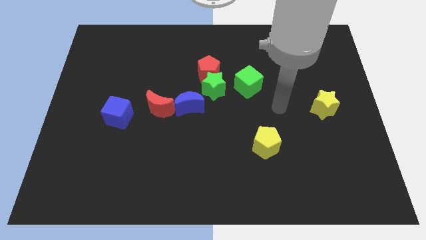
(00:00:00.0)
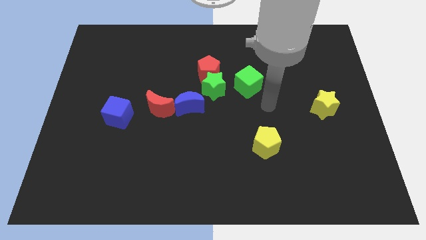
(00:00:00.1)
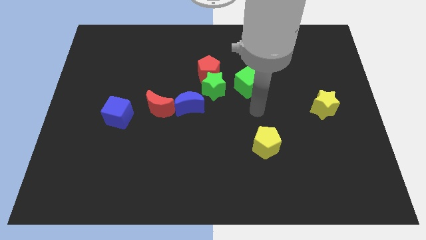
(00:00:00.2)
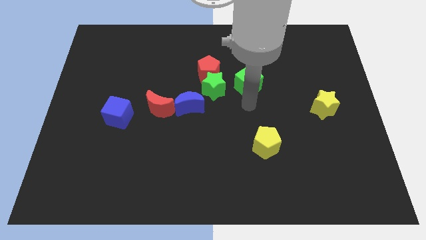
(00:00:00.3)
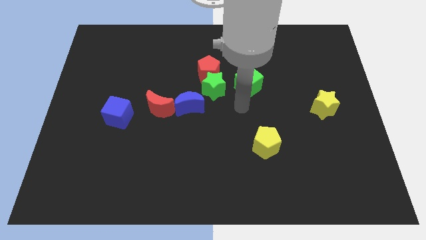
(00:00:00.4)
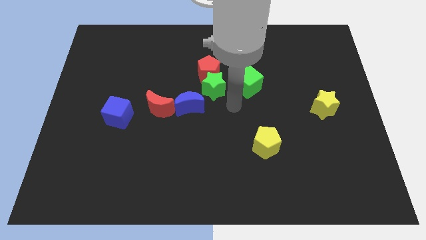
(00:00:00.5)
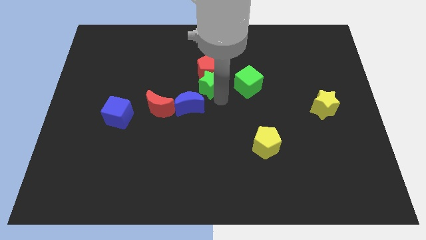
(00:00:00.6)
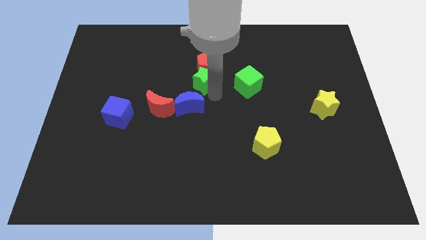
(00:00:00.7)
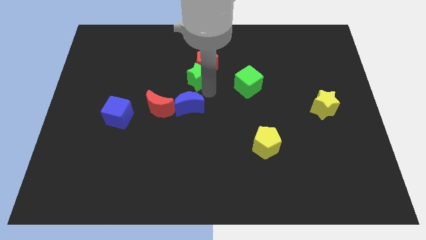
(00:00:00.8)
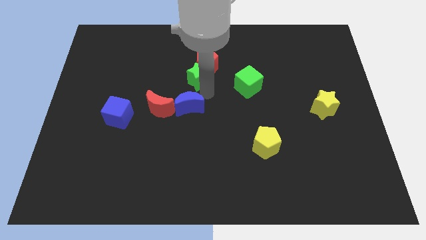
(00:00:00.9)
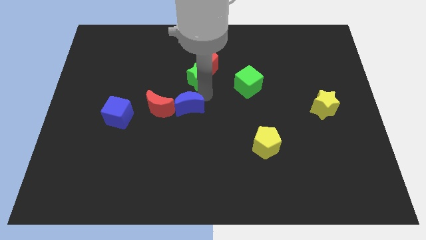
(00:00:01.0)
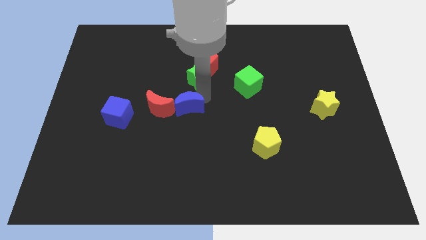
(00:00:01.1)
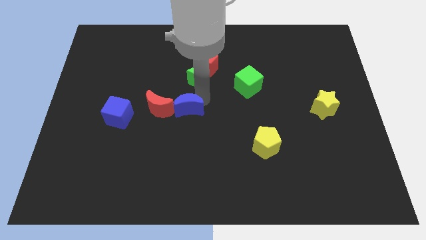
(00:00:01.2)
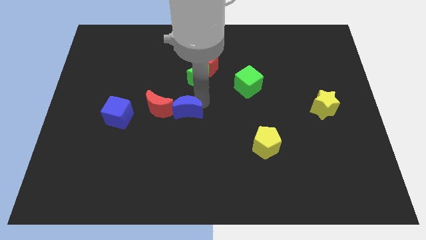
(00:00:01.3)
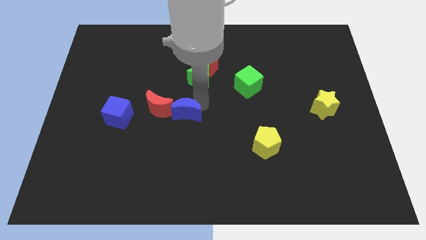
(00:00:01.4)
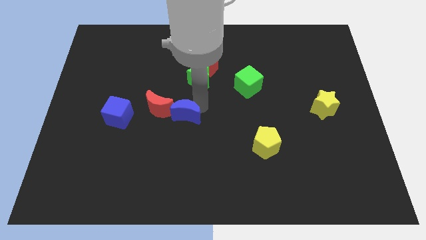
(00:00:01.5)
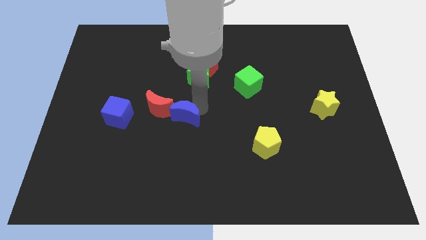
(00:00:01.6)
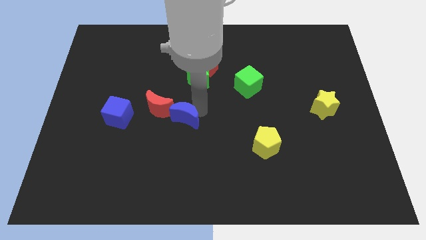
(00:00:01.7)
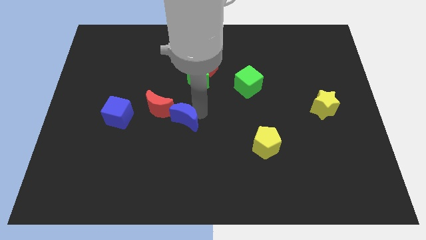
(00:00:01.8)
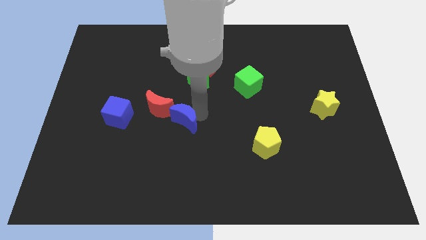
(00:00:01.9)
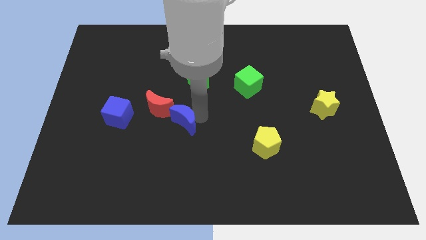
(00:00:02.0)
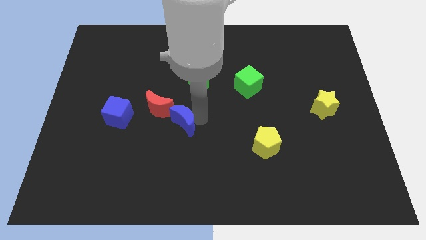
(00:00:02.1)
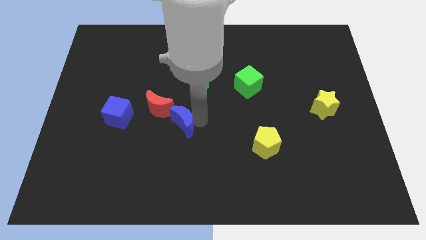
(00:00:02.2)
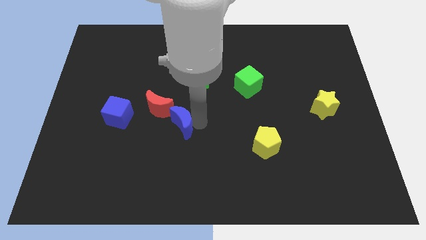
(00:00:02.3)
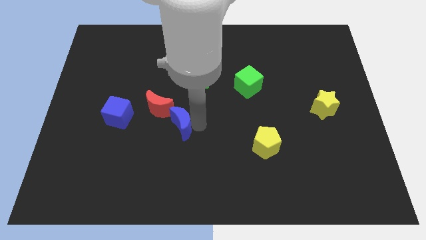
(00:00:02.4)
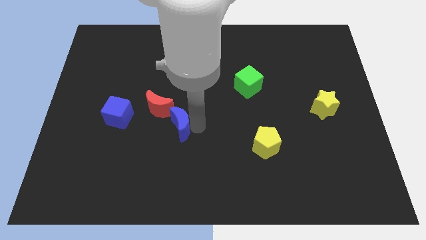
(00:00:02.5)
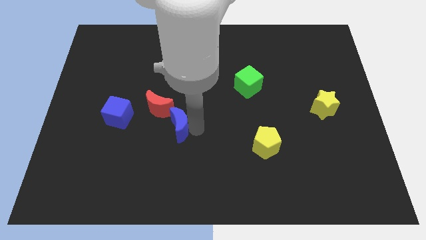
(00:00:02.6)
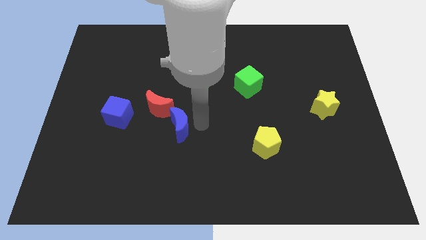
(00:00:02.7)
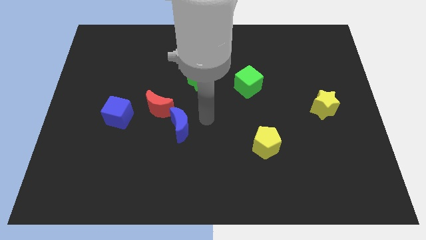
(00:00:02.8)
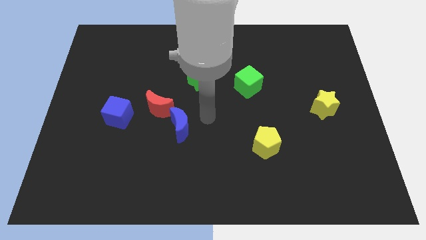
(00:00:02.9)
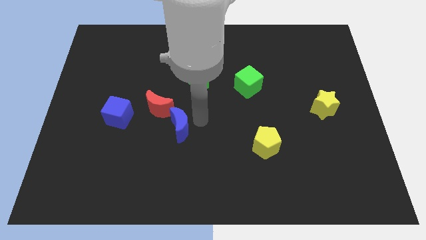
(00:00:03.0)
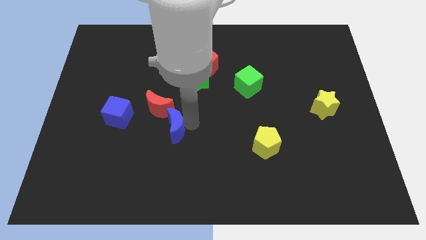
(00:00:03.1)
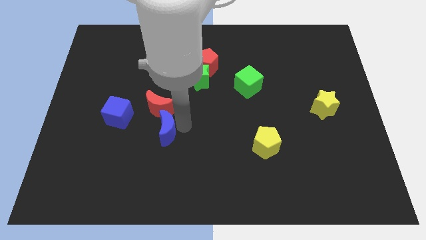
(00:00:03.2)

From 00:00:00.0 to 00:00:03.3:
push the blue moon down and then left a bit

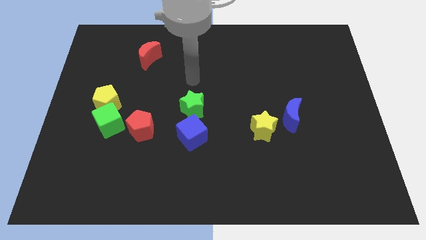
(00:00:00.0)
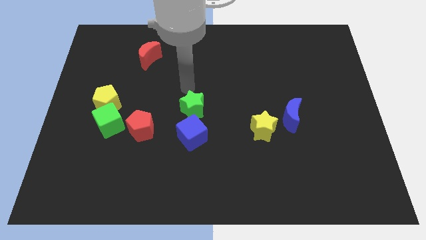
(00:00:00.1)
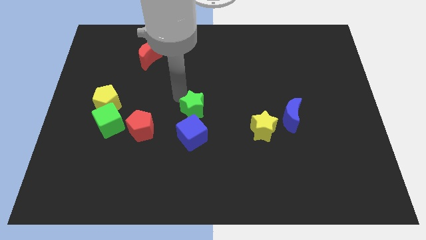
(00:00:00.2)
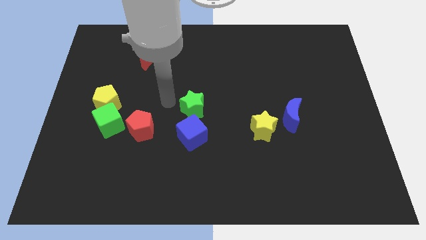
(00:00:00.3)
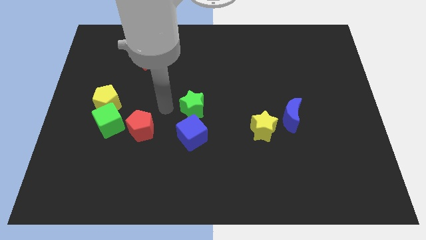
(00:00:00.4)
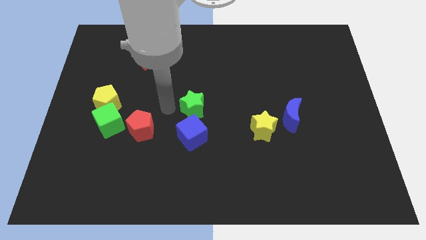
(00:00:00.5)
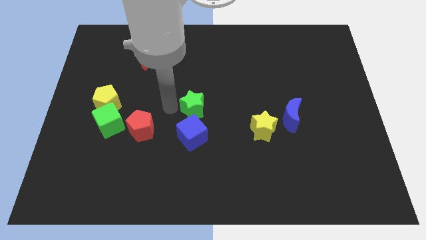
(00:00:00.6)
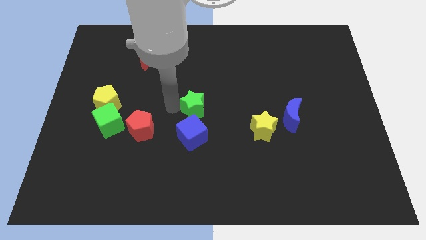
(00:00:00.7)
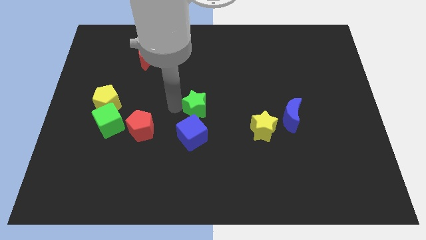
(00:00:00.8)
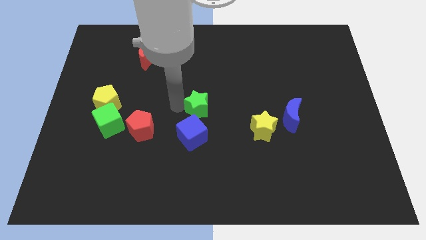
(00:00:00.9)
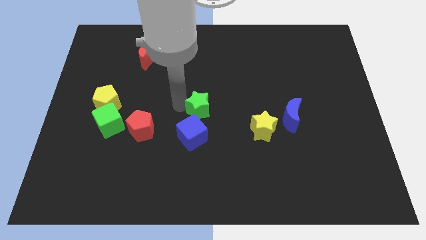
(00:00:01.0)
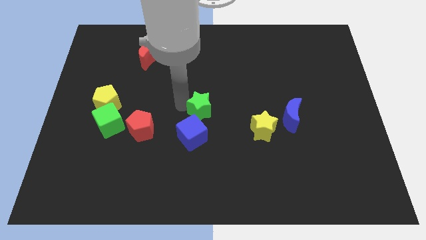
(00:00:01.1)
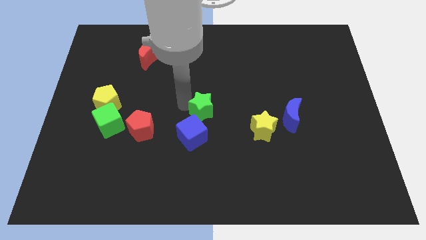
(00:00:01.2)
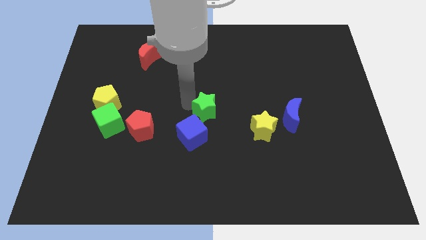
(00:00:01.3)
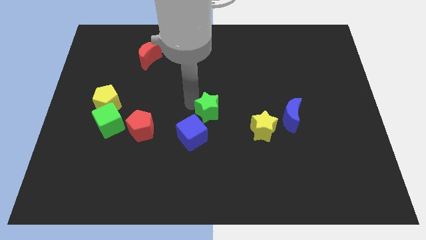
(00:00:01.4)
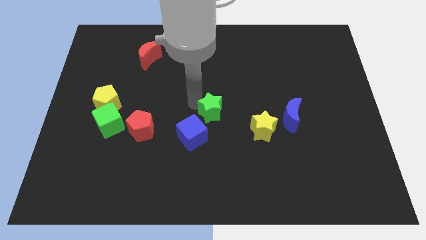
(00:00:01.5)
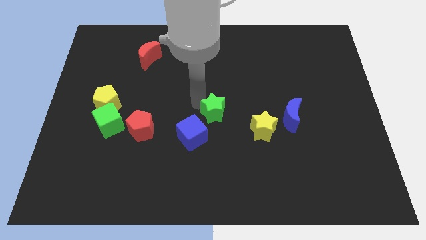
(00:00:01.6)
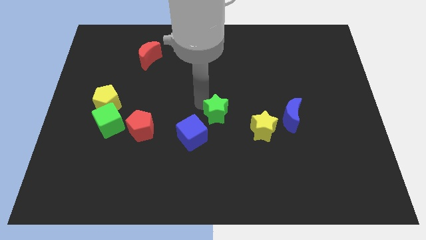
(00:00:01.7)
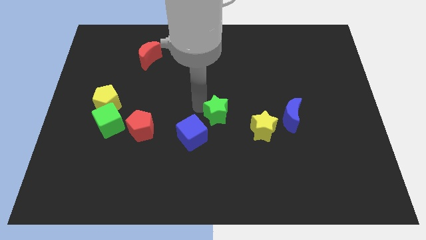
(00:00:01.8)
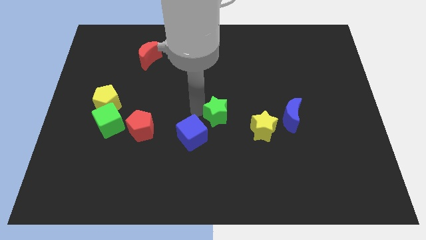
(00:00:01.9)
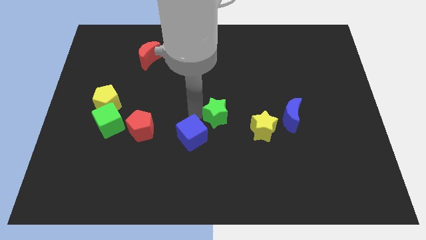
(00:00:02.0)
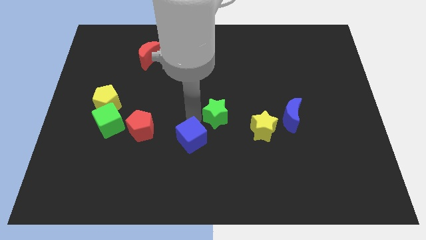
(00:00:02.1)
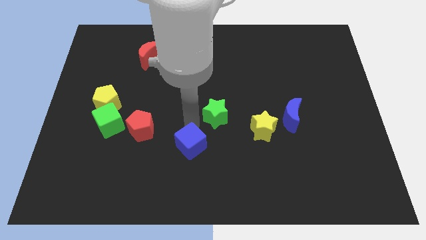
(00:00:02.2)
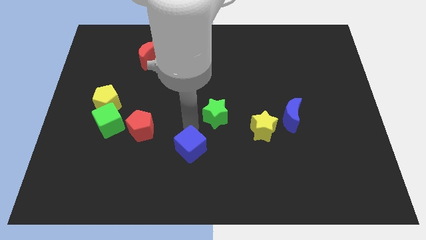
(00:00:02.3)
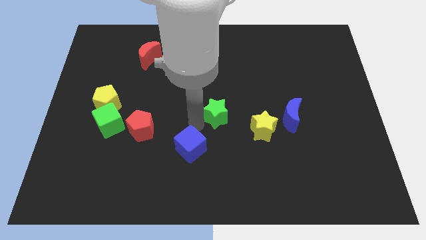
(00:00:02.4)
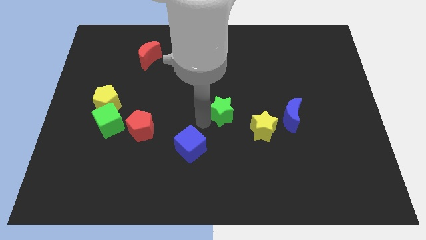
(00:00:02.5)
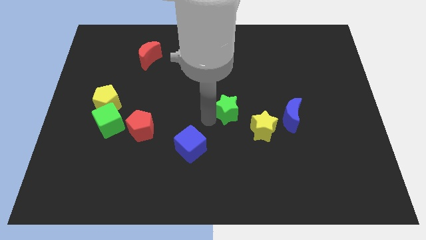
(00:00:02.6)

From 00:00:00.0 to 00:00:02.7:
push the green star to the right a bit

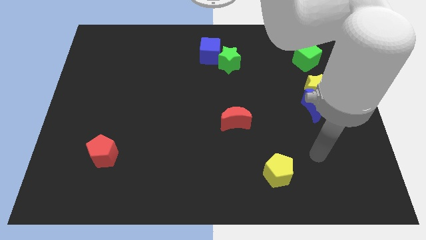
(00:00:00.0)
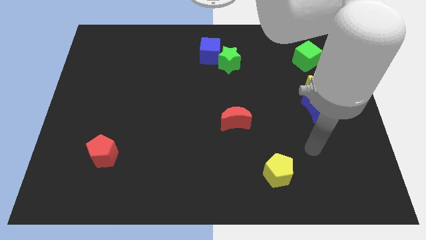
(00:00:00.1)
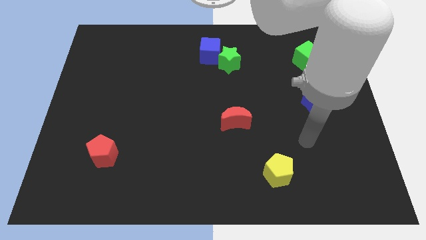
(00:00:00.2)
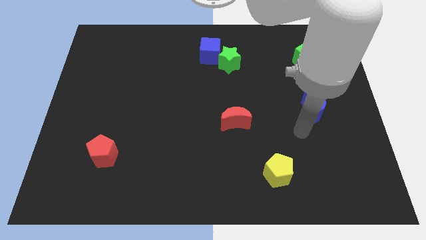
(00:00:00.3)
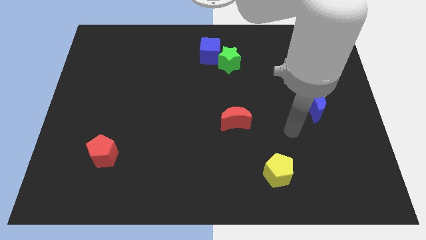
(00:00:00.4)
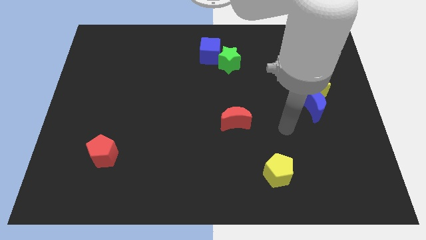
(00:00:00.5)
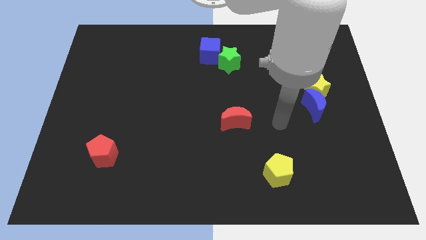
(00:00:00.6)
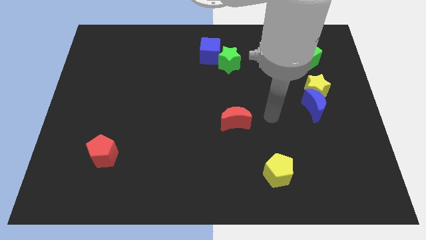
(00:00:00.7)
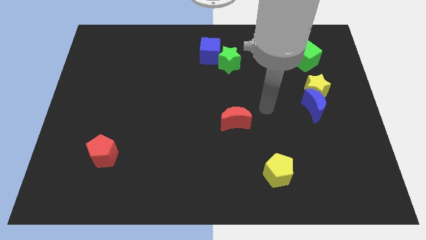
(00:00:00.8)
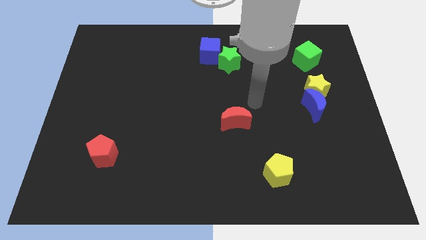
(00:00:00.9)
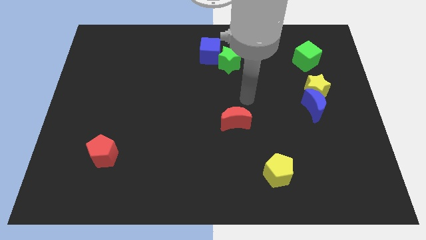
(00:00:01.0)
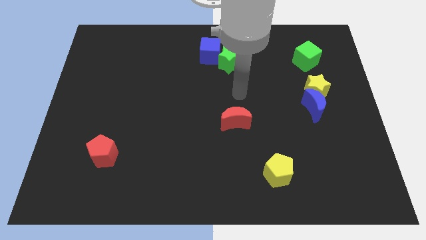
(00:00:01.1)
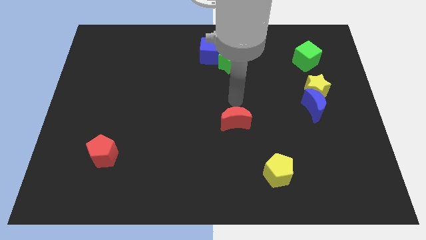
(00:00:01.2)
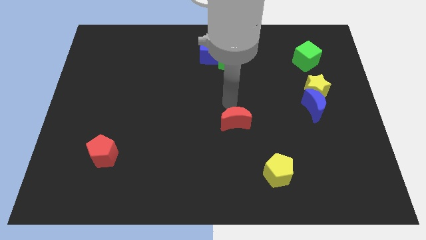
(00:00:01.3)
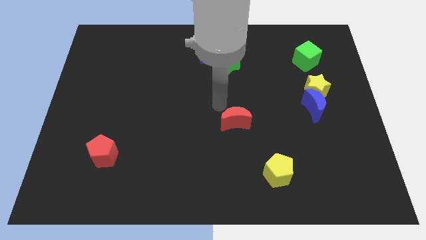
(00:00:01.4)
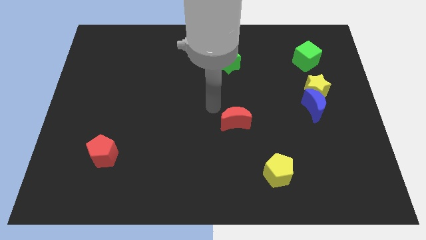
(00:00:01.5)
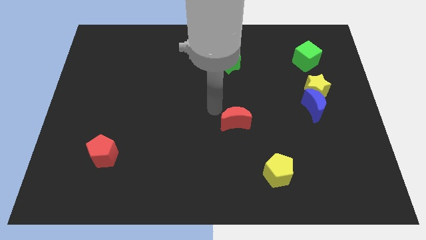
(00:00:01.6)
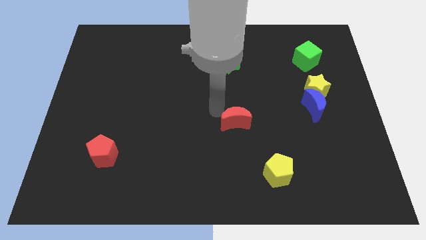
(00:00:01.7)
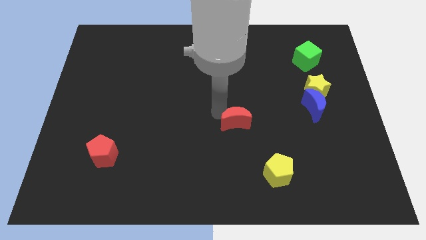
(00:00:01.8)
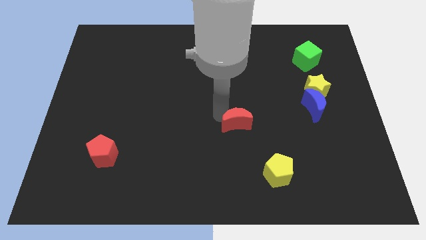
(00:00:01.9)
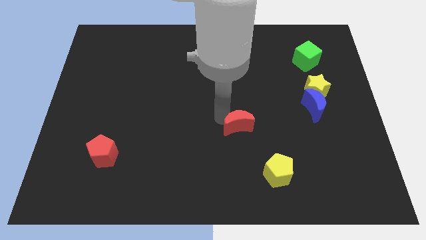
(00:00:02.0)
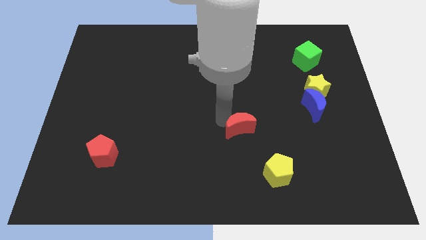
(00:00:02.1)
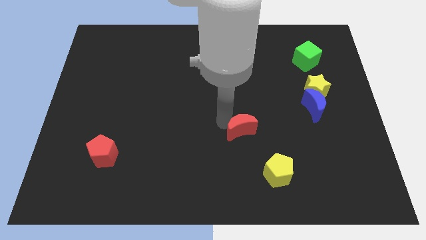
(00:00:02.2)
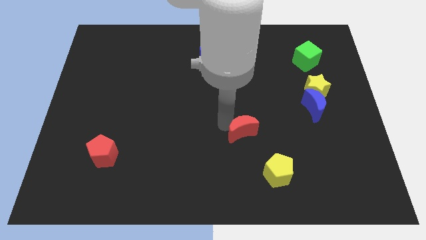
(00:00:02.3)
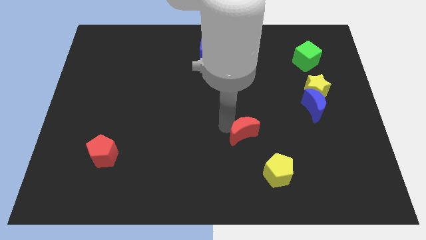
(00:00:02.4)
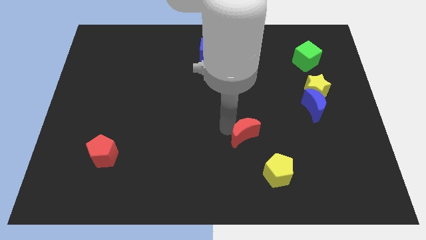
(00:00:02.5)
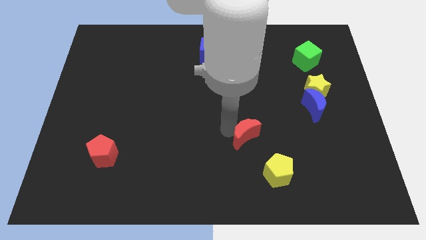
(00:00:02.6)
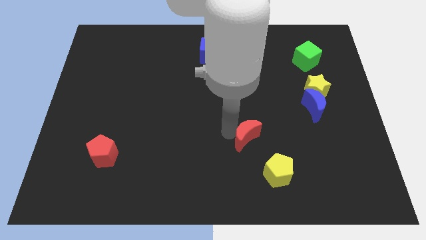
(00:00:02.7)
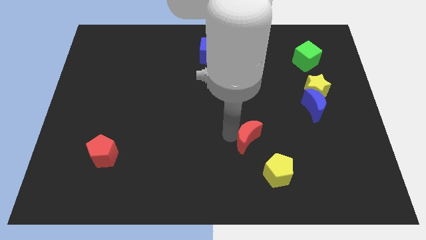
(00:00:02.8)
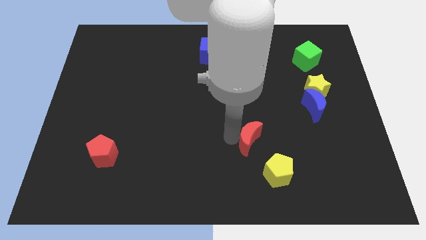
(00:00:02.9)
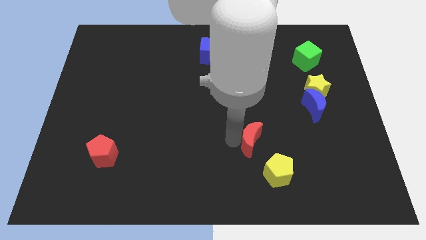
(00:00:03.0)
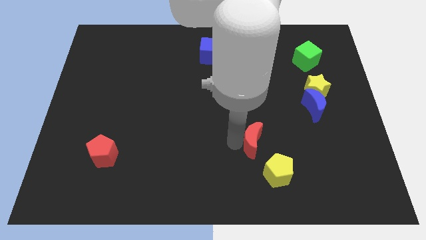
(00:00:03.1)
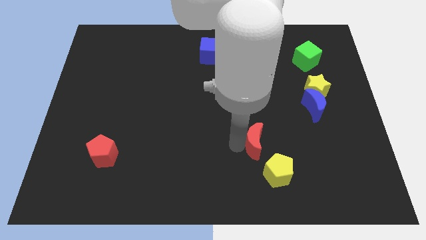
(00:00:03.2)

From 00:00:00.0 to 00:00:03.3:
slightly push the red moon down and then to the right
